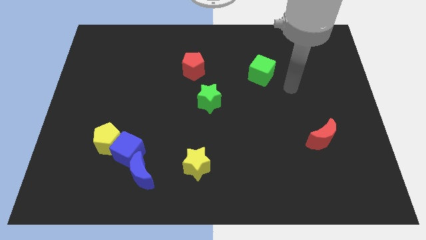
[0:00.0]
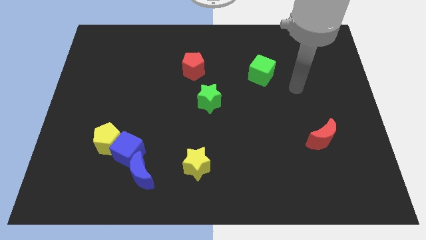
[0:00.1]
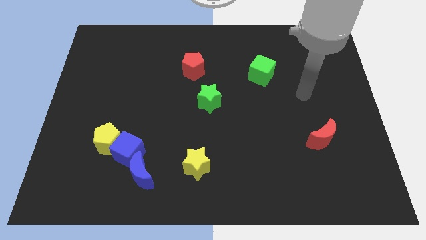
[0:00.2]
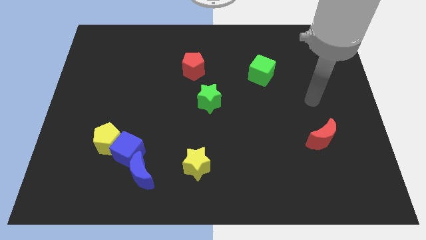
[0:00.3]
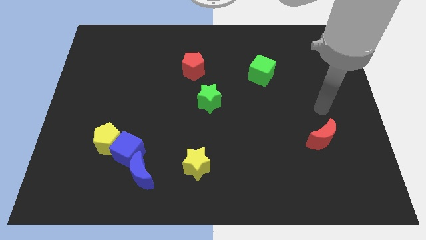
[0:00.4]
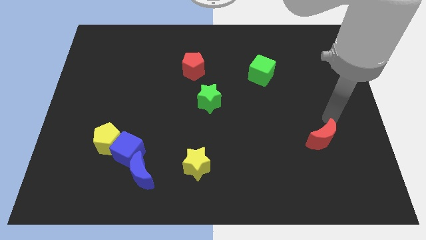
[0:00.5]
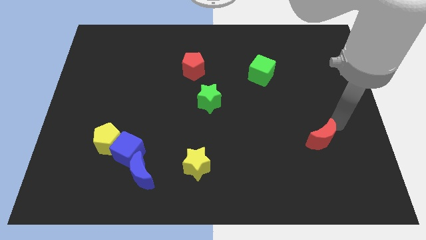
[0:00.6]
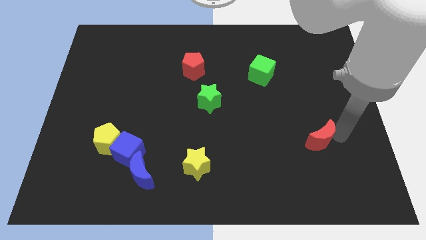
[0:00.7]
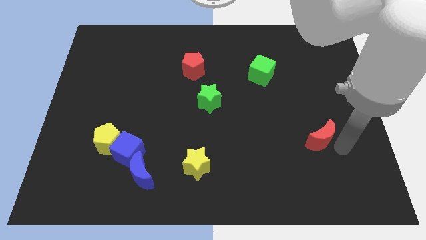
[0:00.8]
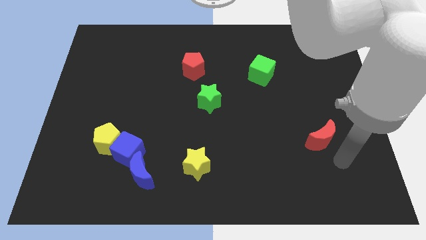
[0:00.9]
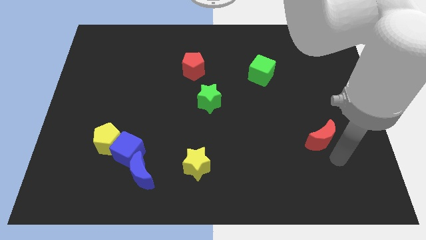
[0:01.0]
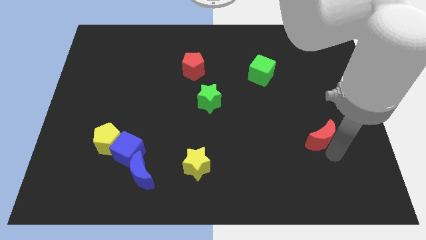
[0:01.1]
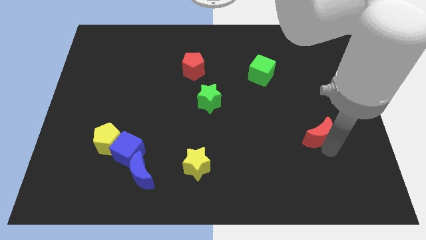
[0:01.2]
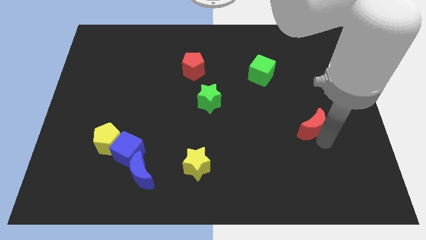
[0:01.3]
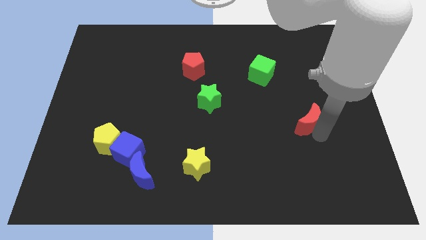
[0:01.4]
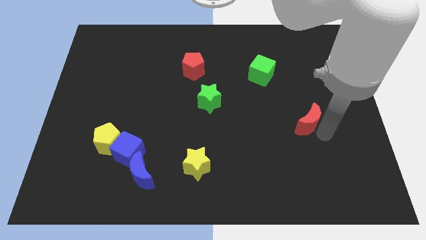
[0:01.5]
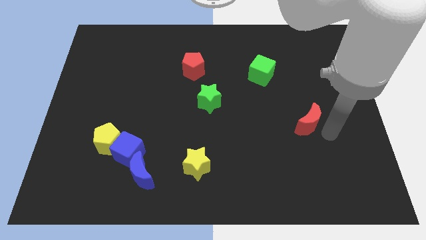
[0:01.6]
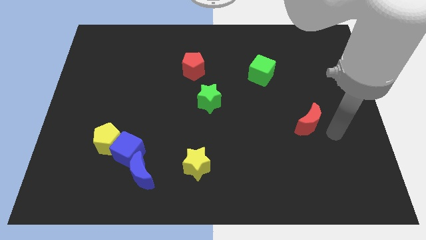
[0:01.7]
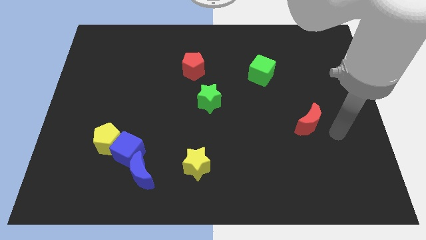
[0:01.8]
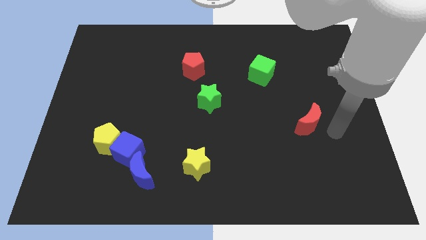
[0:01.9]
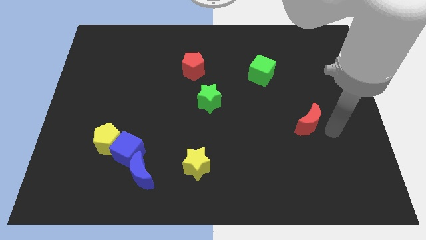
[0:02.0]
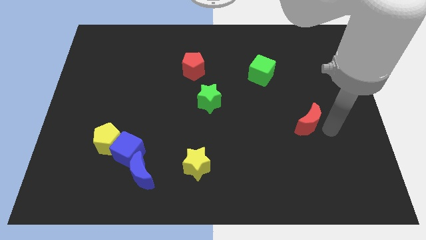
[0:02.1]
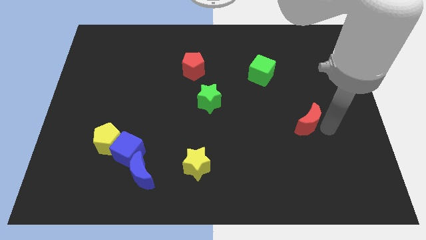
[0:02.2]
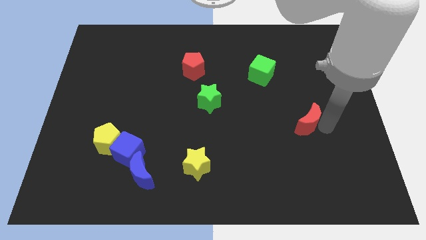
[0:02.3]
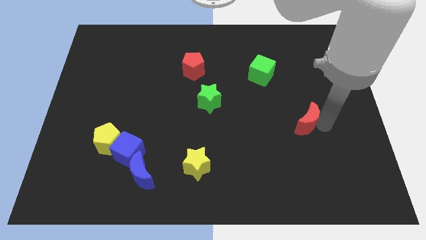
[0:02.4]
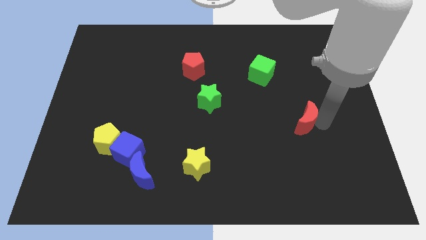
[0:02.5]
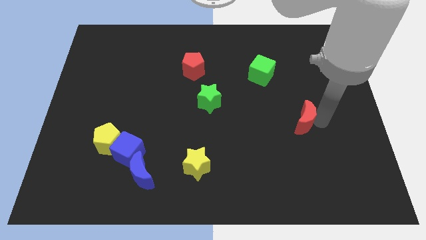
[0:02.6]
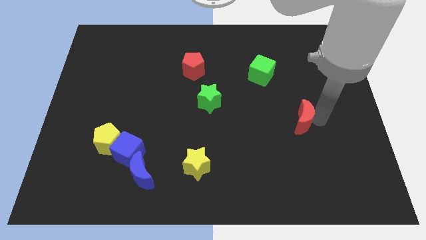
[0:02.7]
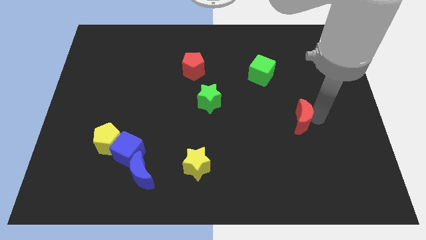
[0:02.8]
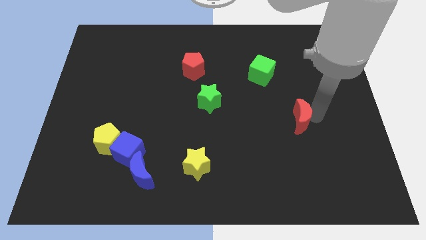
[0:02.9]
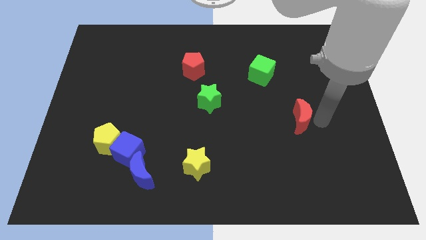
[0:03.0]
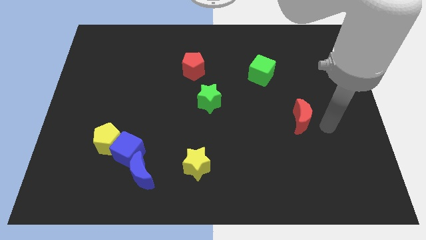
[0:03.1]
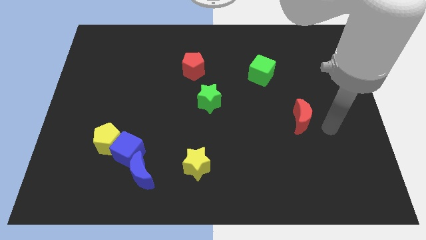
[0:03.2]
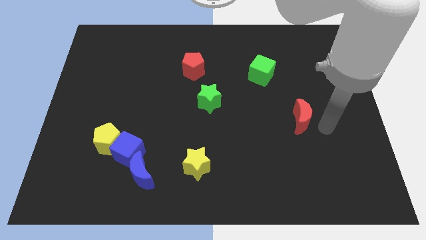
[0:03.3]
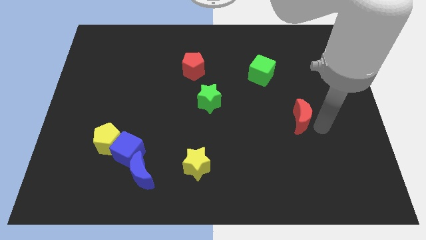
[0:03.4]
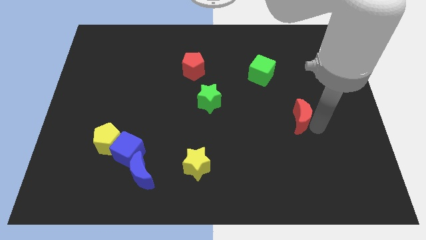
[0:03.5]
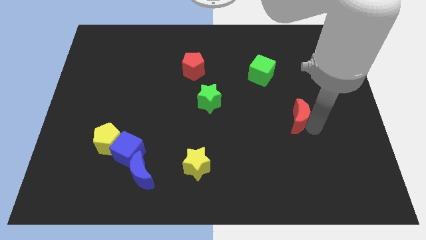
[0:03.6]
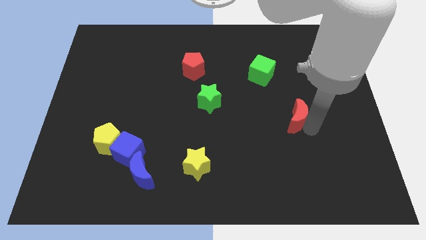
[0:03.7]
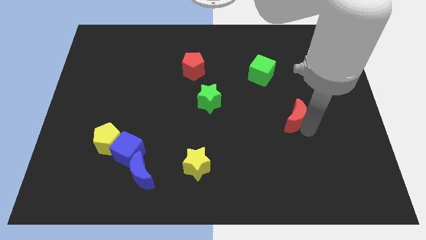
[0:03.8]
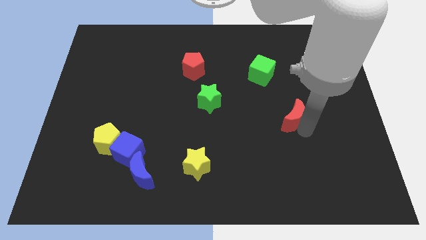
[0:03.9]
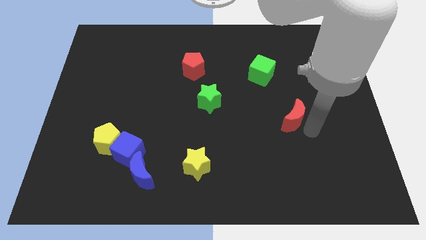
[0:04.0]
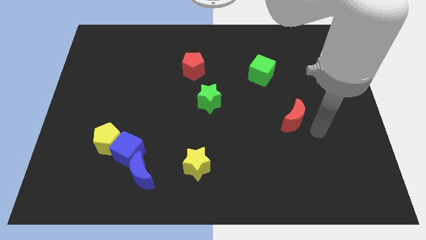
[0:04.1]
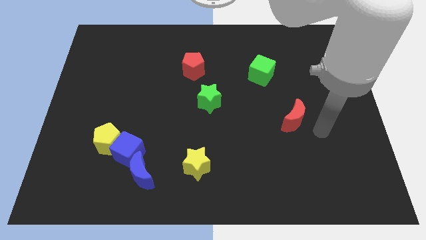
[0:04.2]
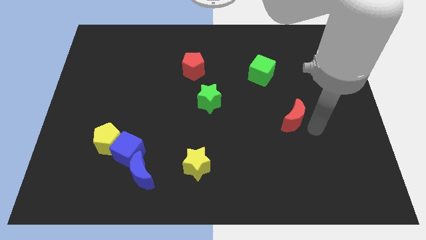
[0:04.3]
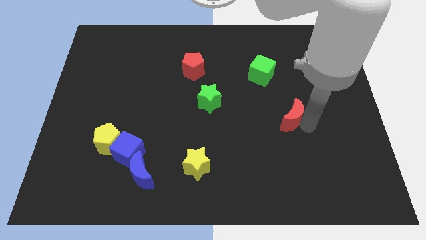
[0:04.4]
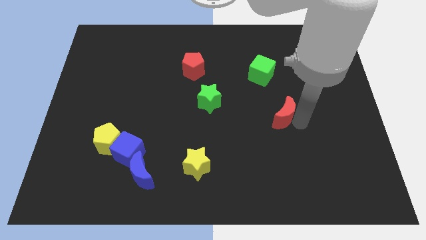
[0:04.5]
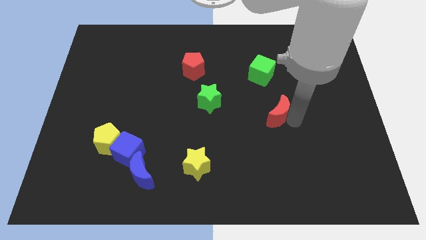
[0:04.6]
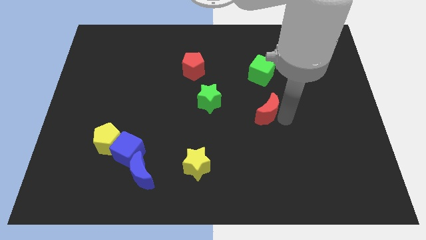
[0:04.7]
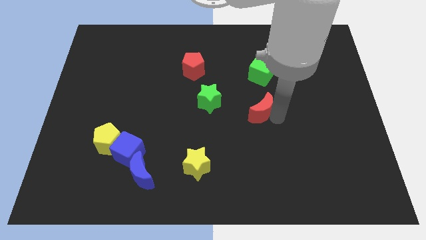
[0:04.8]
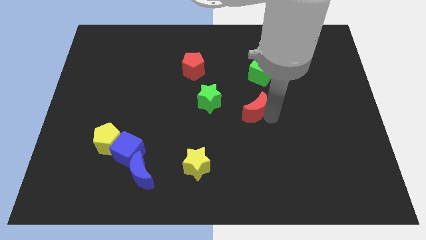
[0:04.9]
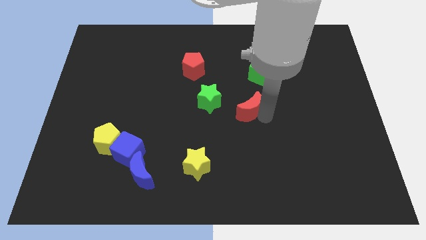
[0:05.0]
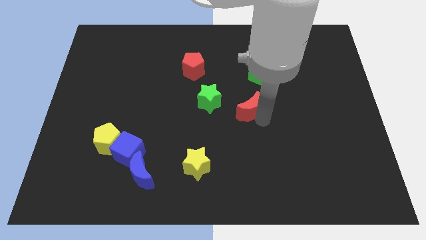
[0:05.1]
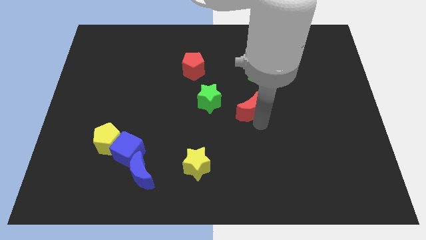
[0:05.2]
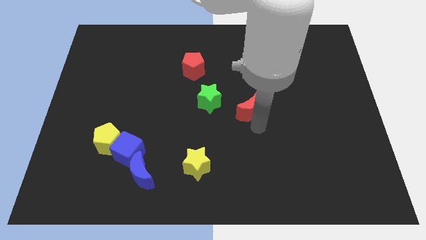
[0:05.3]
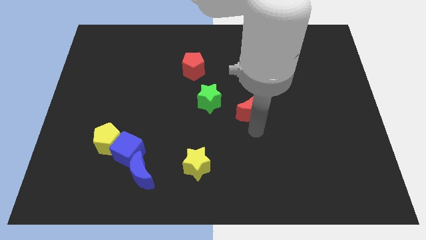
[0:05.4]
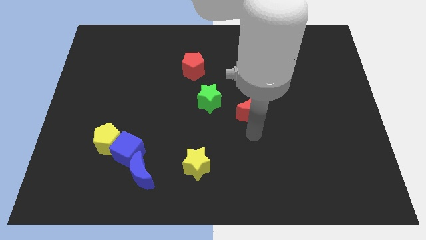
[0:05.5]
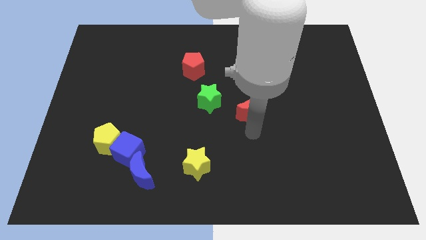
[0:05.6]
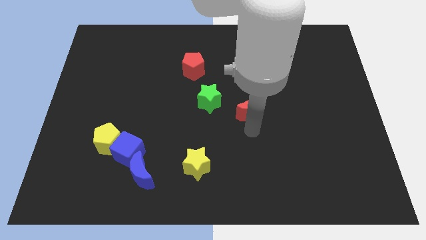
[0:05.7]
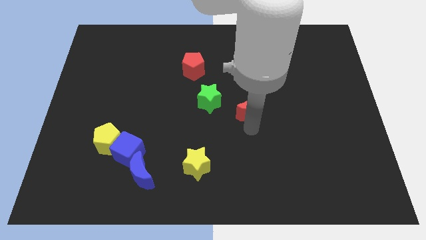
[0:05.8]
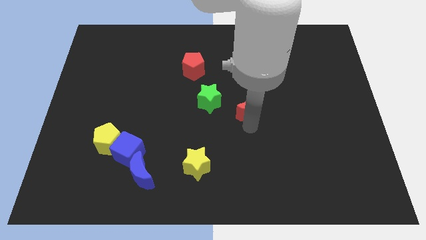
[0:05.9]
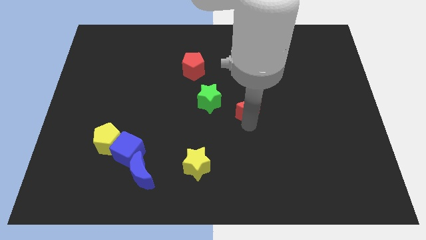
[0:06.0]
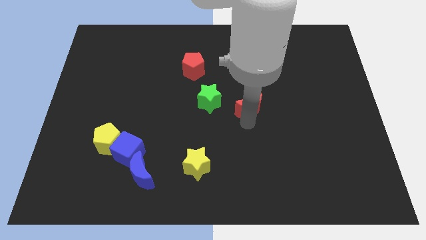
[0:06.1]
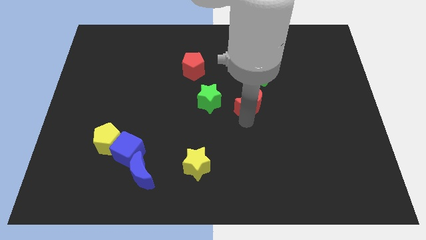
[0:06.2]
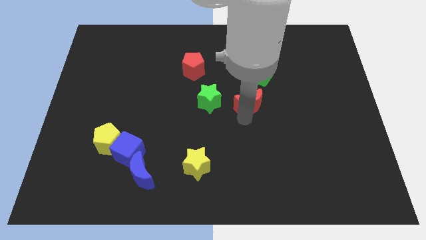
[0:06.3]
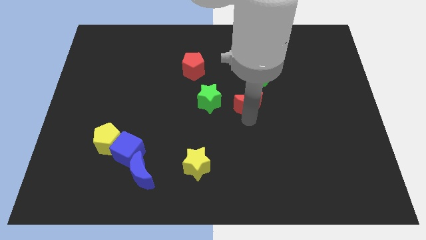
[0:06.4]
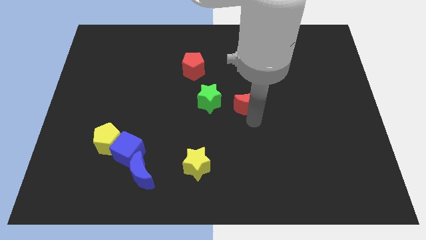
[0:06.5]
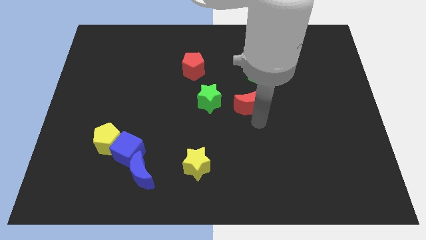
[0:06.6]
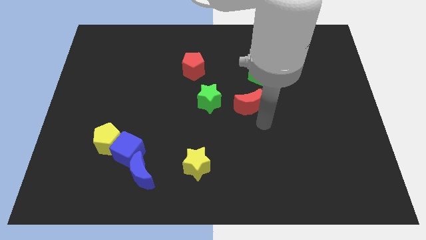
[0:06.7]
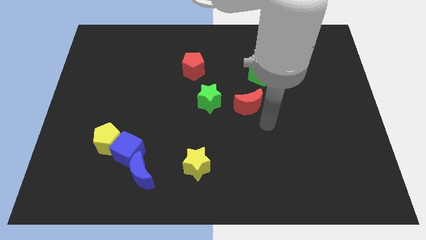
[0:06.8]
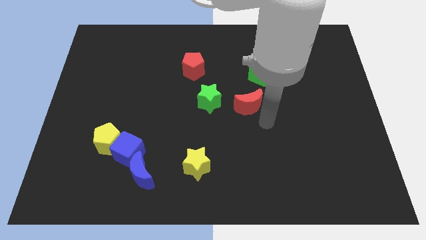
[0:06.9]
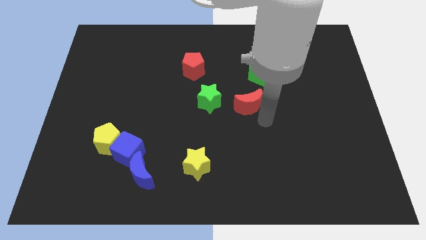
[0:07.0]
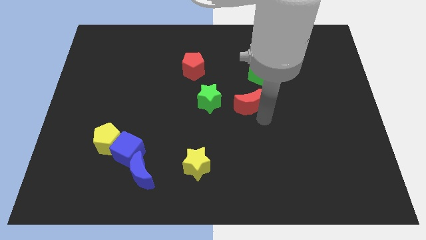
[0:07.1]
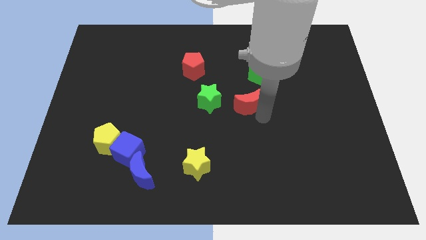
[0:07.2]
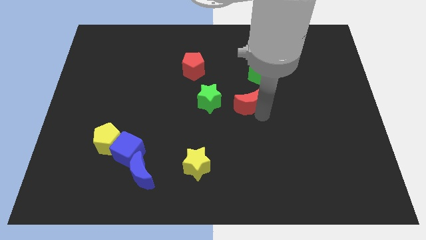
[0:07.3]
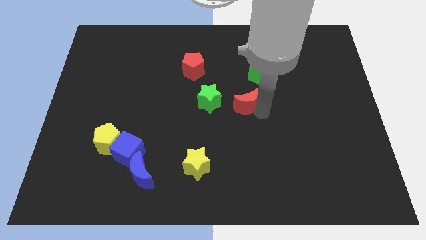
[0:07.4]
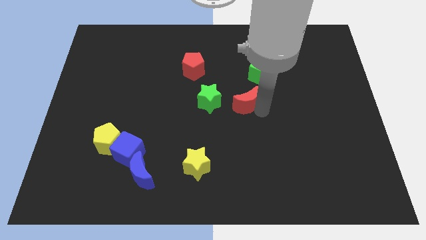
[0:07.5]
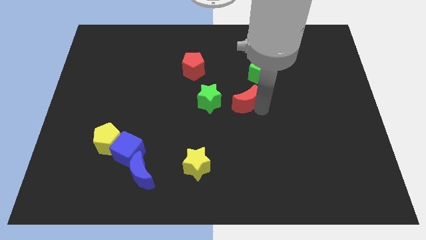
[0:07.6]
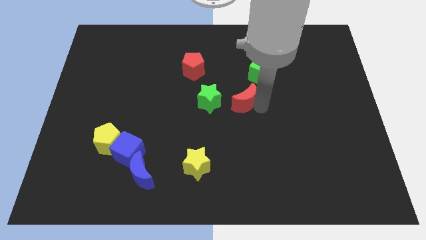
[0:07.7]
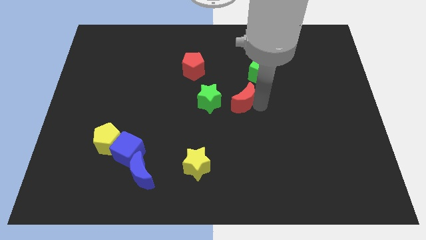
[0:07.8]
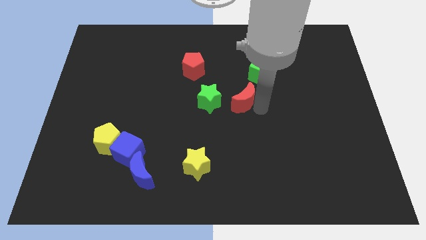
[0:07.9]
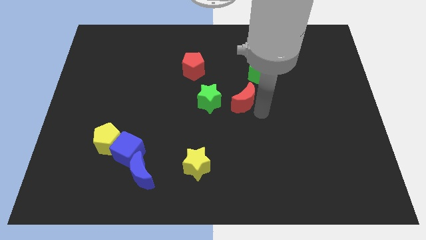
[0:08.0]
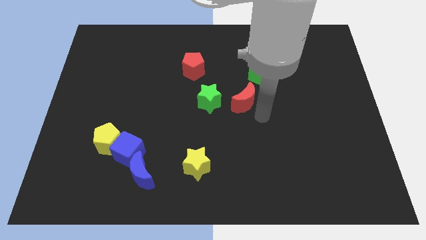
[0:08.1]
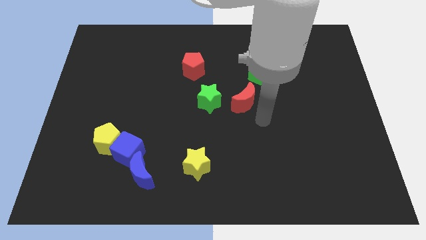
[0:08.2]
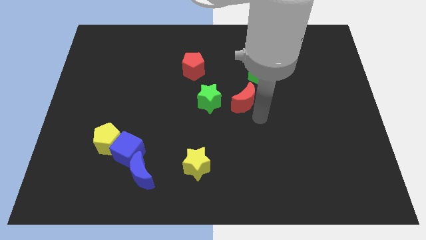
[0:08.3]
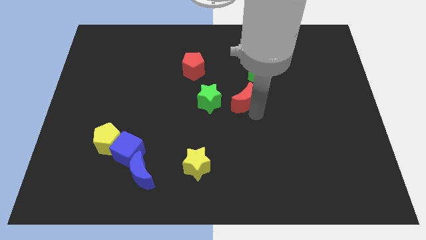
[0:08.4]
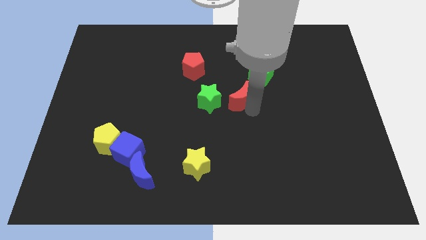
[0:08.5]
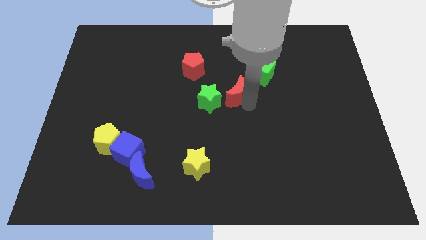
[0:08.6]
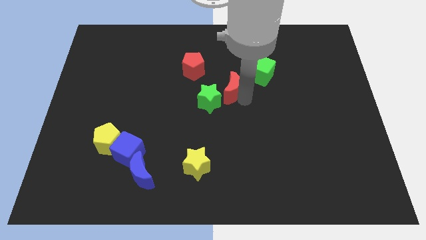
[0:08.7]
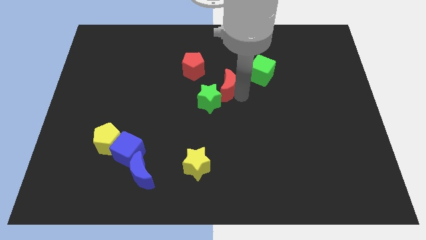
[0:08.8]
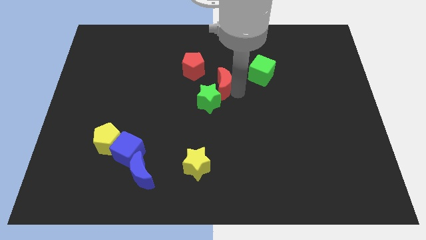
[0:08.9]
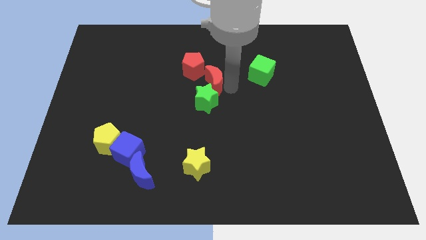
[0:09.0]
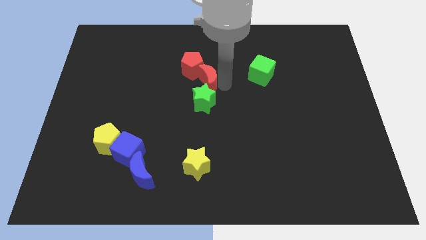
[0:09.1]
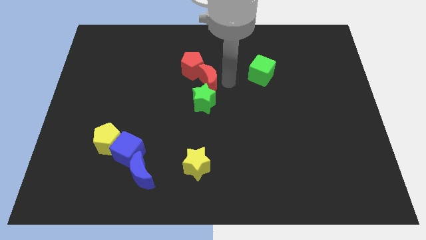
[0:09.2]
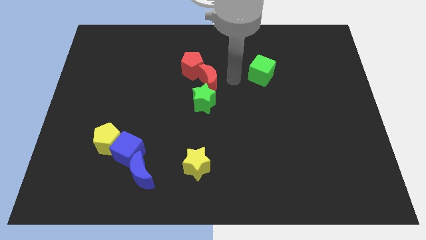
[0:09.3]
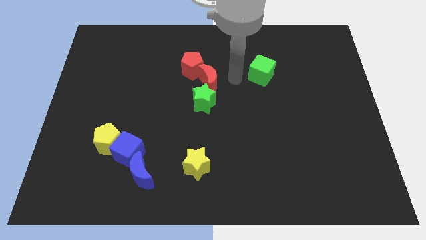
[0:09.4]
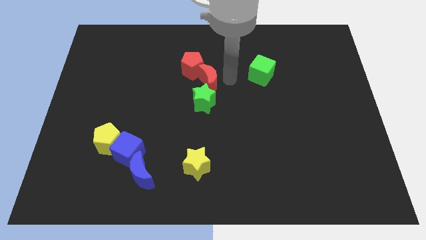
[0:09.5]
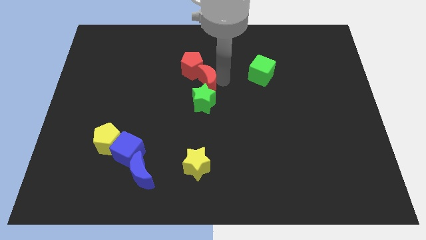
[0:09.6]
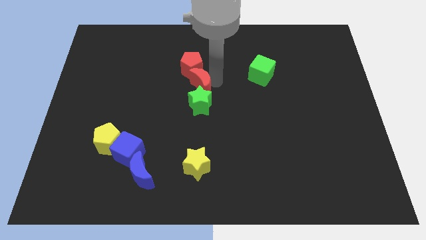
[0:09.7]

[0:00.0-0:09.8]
put the red moon to the top left of the green star
